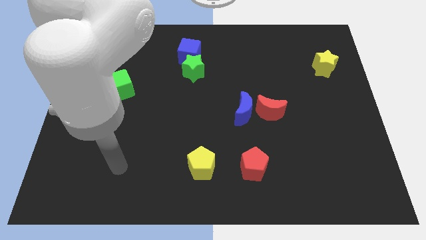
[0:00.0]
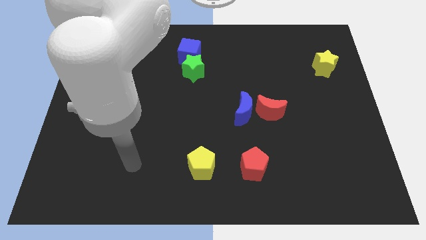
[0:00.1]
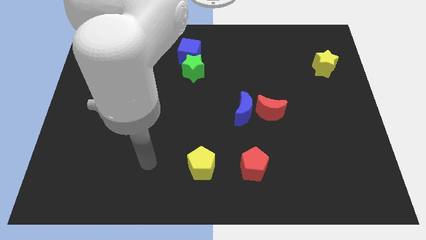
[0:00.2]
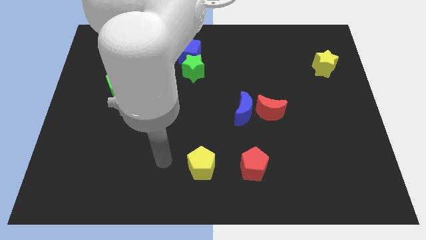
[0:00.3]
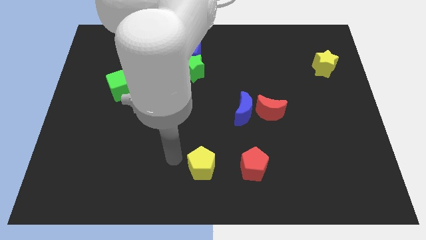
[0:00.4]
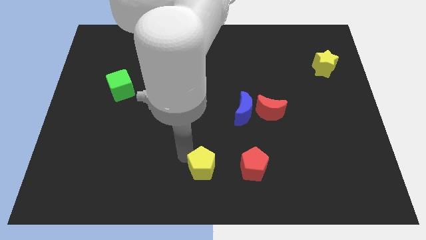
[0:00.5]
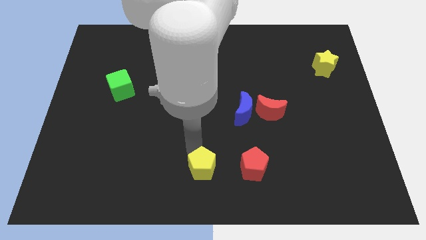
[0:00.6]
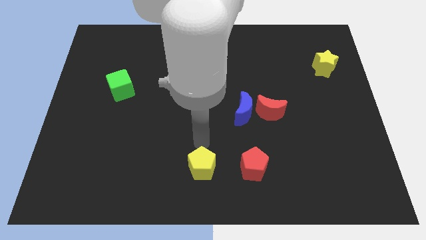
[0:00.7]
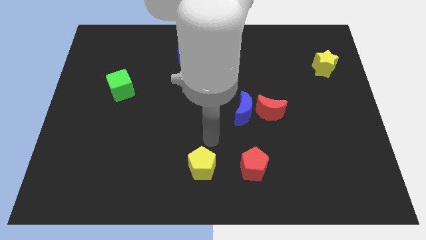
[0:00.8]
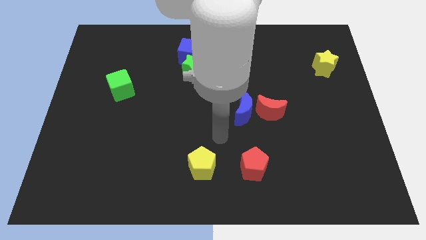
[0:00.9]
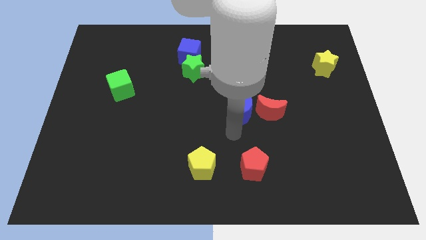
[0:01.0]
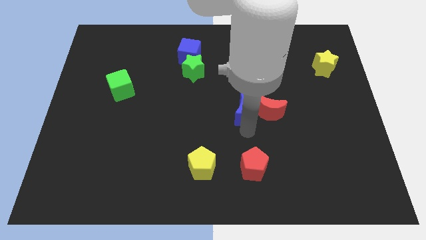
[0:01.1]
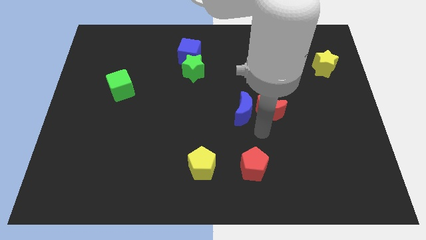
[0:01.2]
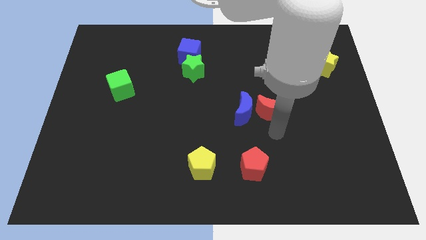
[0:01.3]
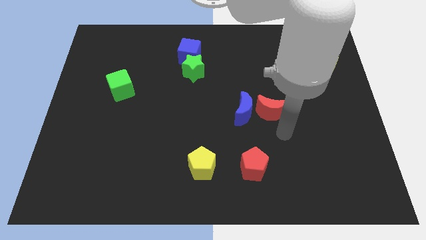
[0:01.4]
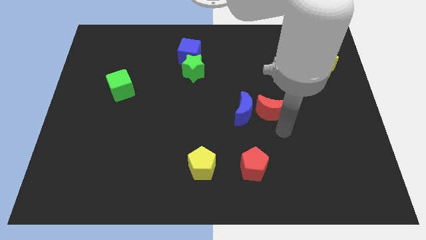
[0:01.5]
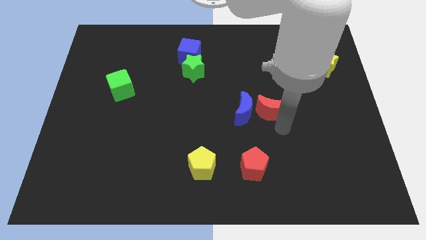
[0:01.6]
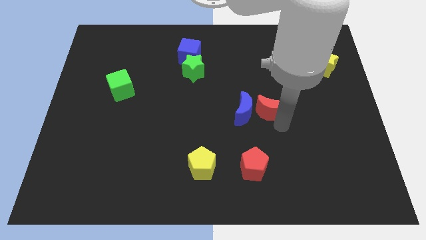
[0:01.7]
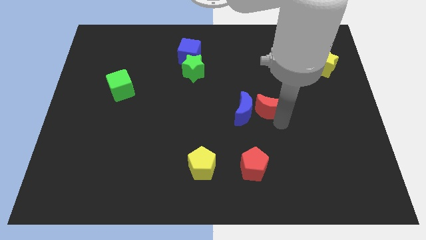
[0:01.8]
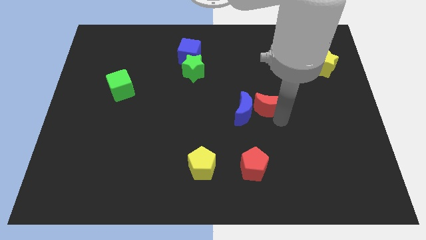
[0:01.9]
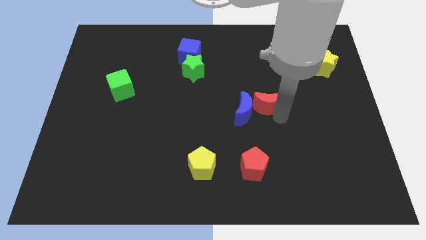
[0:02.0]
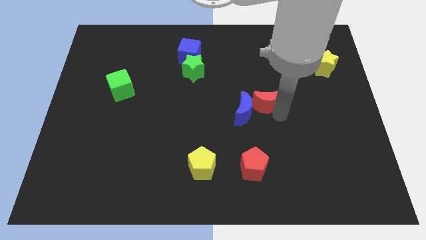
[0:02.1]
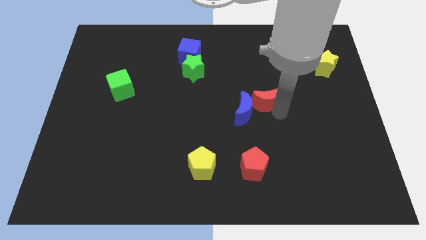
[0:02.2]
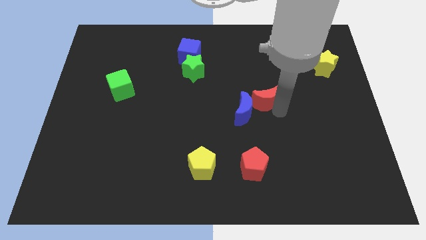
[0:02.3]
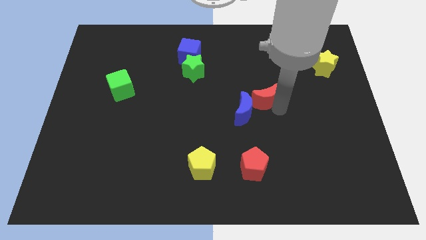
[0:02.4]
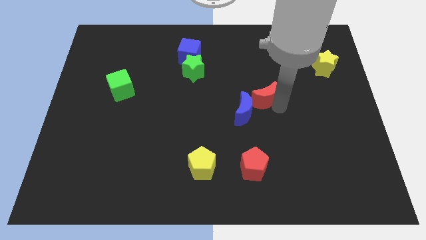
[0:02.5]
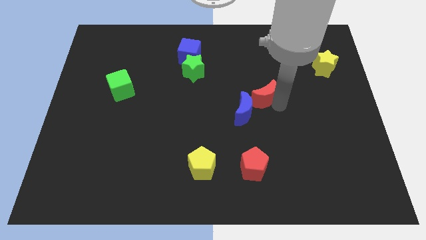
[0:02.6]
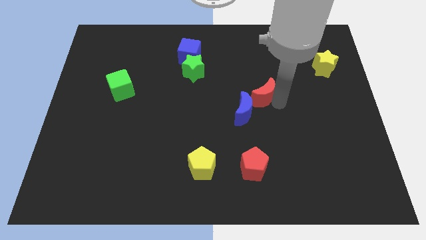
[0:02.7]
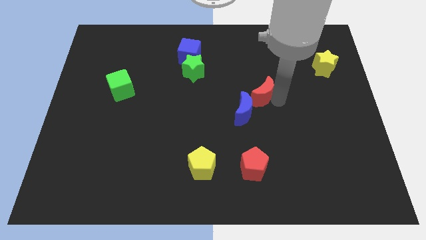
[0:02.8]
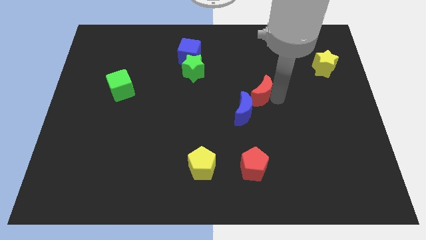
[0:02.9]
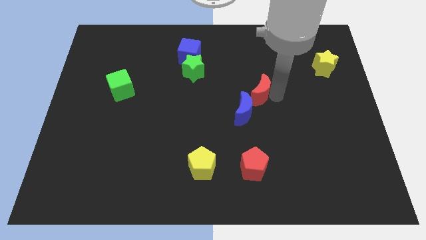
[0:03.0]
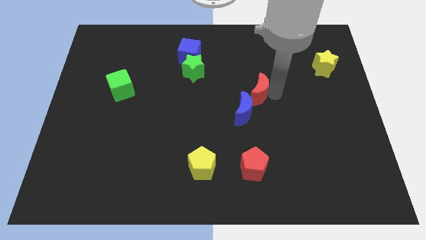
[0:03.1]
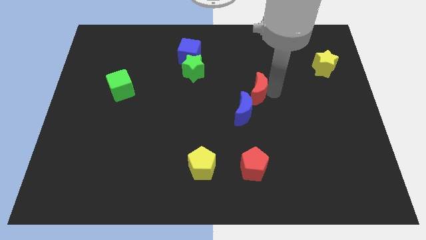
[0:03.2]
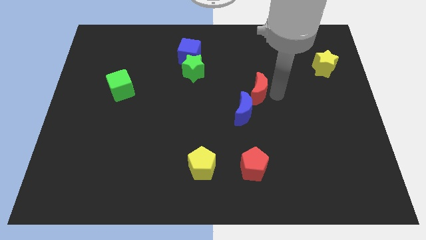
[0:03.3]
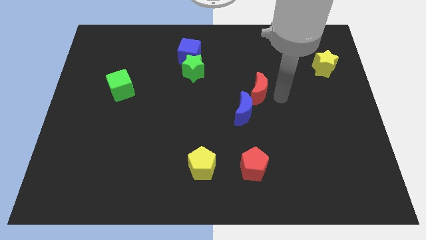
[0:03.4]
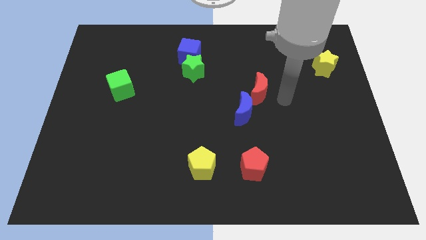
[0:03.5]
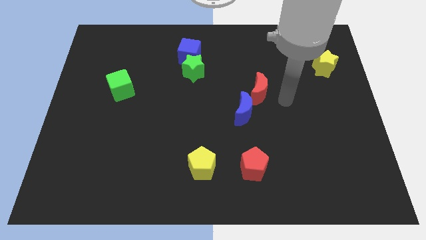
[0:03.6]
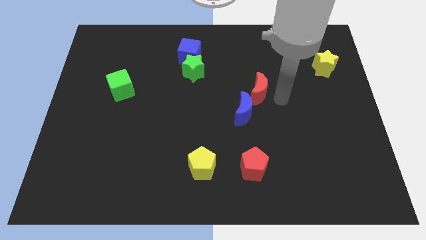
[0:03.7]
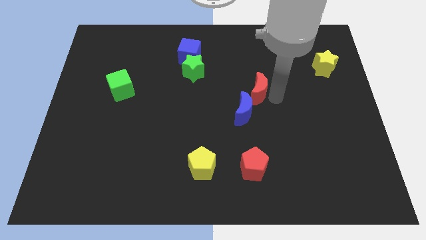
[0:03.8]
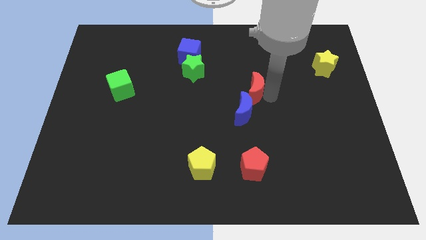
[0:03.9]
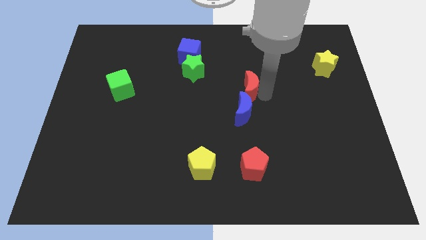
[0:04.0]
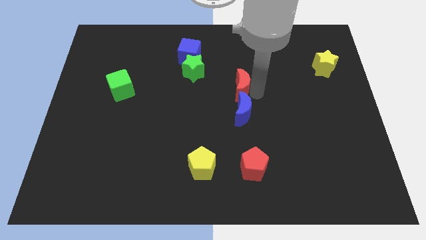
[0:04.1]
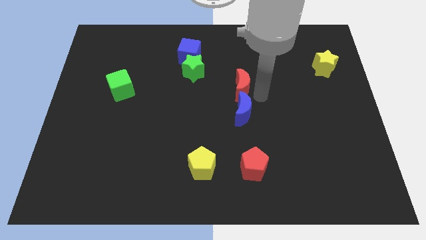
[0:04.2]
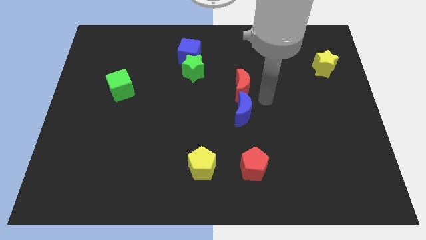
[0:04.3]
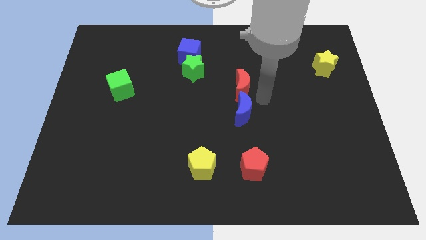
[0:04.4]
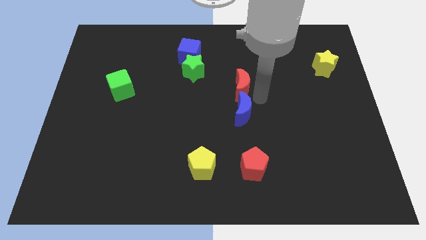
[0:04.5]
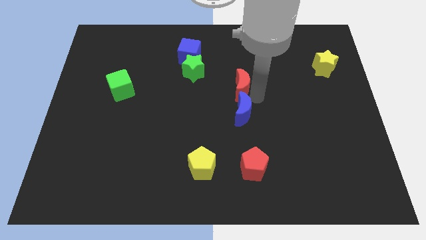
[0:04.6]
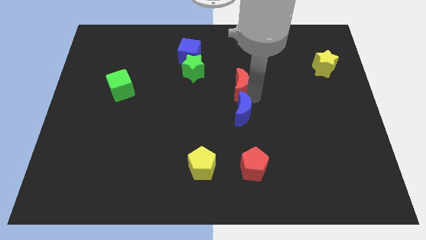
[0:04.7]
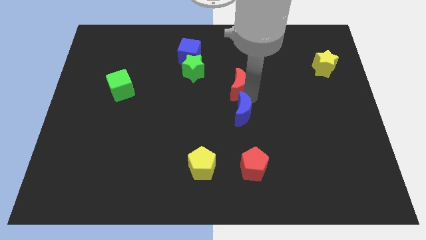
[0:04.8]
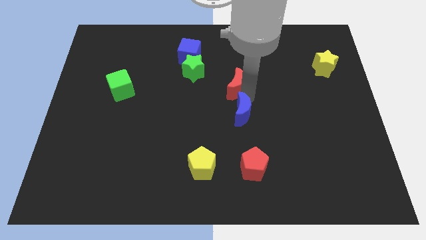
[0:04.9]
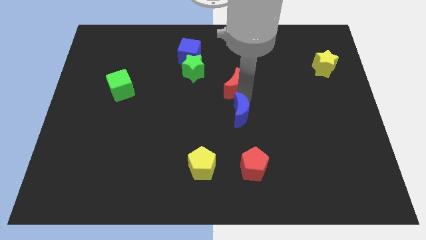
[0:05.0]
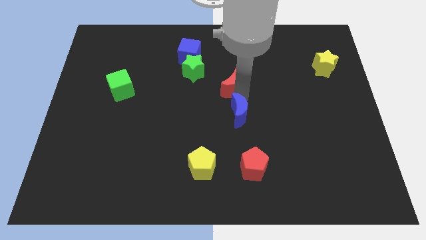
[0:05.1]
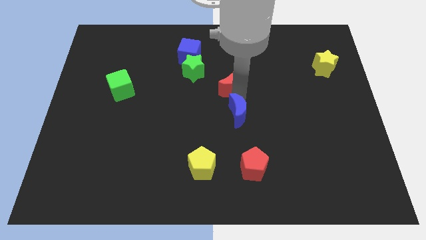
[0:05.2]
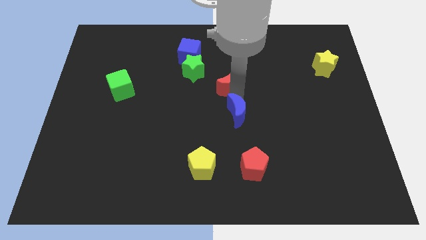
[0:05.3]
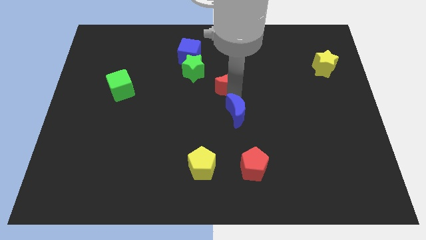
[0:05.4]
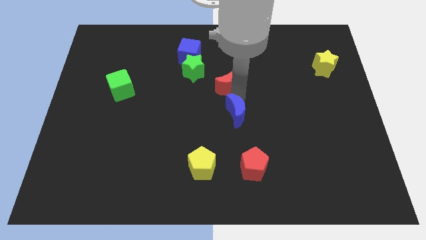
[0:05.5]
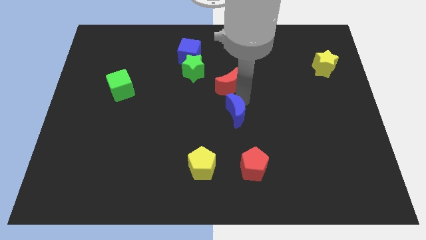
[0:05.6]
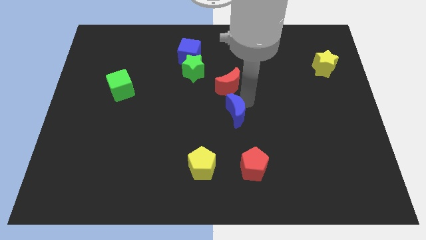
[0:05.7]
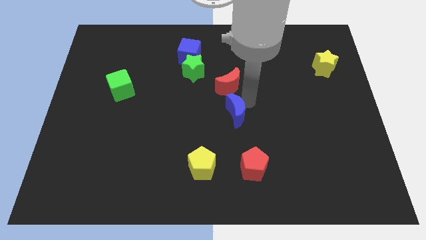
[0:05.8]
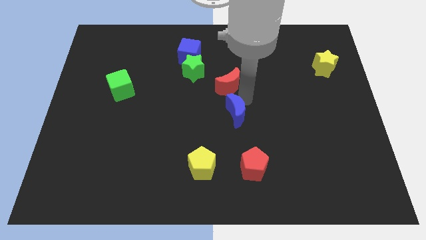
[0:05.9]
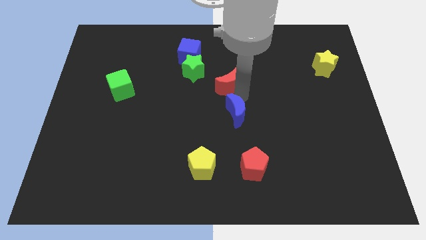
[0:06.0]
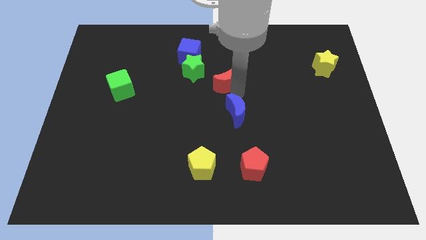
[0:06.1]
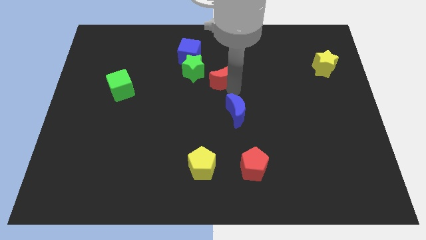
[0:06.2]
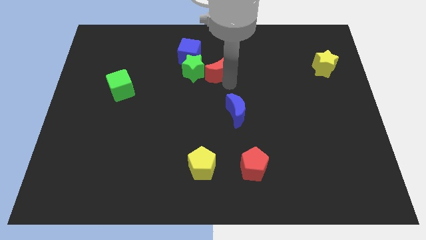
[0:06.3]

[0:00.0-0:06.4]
put the red moon close to the green star
